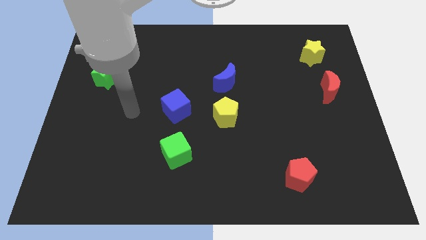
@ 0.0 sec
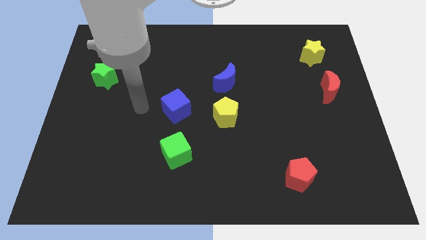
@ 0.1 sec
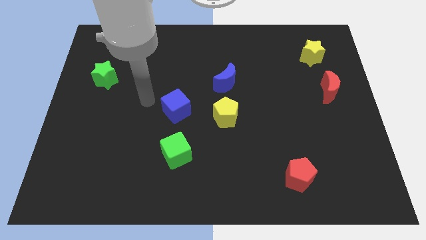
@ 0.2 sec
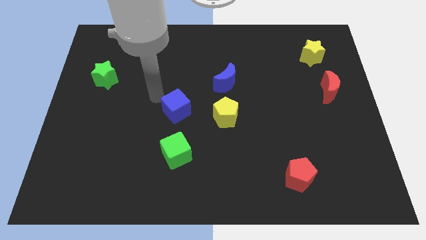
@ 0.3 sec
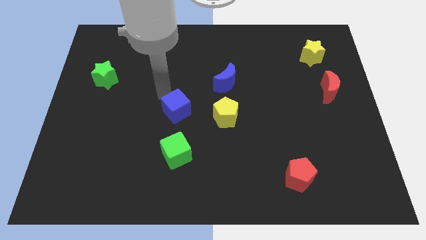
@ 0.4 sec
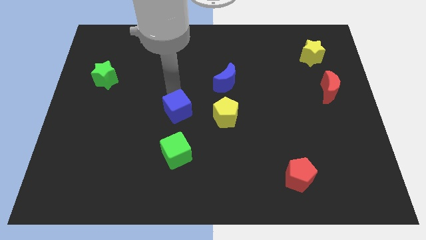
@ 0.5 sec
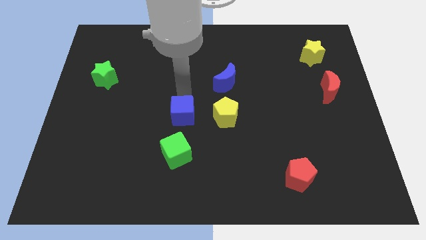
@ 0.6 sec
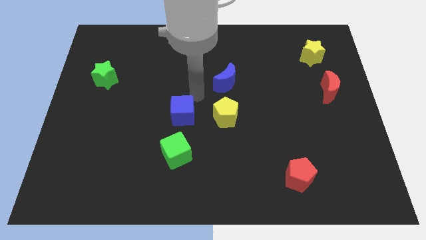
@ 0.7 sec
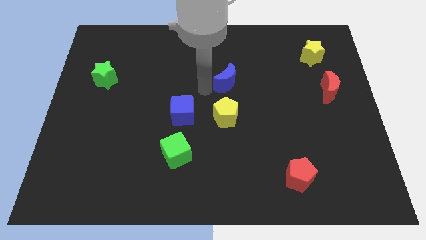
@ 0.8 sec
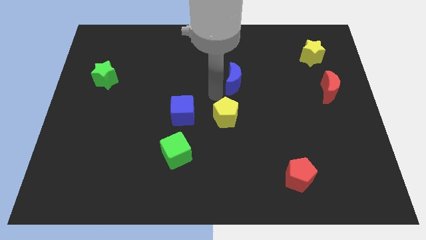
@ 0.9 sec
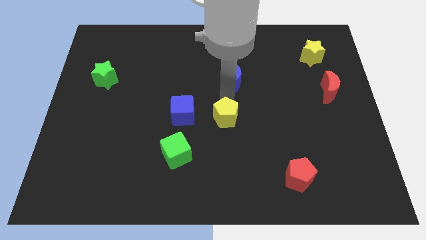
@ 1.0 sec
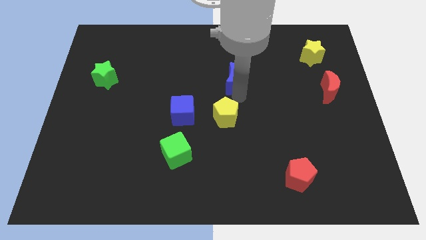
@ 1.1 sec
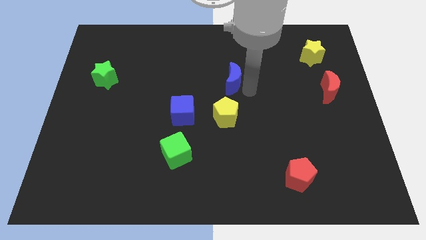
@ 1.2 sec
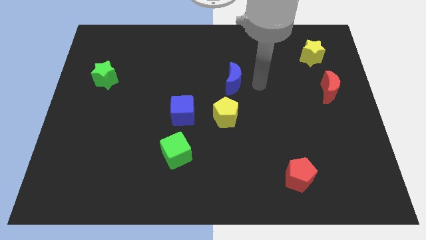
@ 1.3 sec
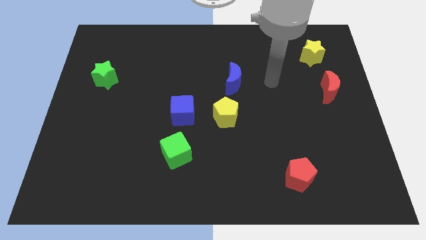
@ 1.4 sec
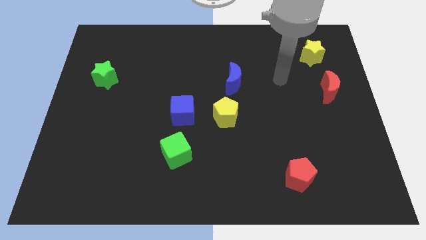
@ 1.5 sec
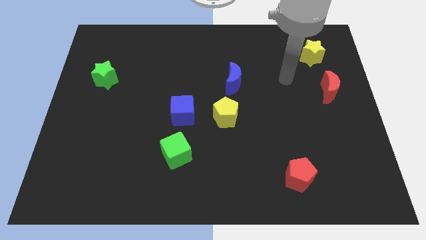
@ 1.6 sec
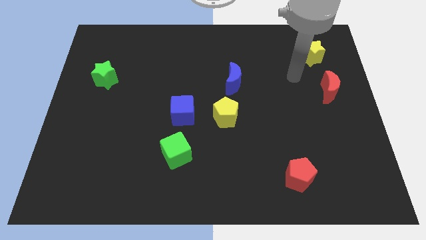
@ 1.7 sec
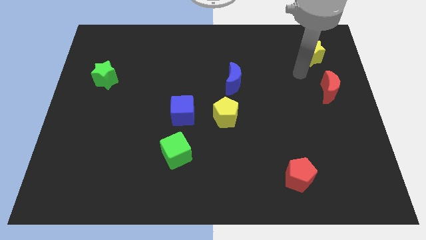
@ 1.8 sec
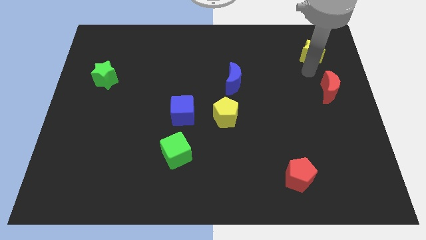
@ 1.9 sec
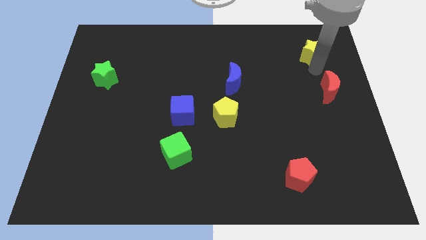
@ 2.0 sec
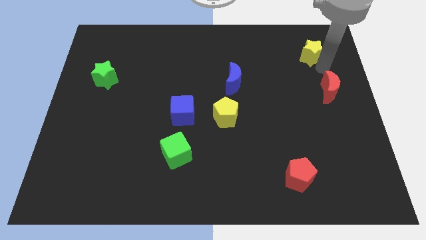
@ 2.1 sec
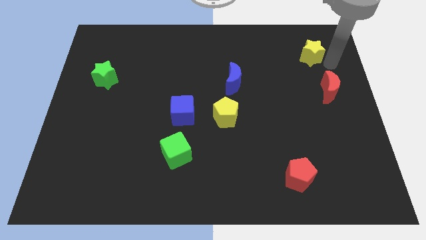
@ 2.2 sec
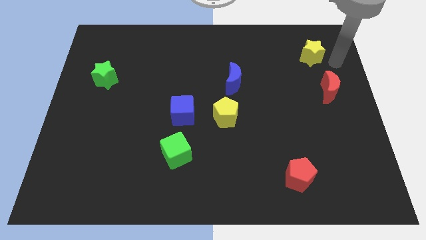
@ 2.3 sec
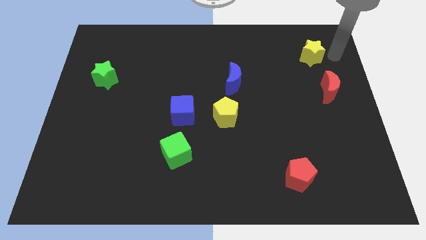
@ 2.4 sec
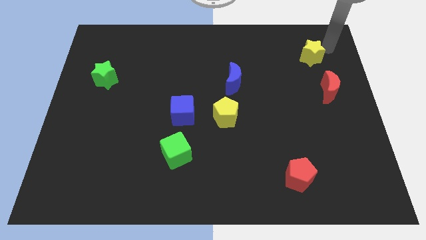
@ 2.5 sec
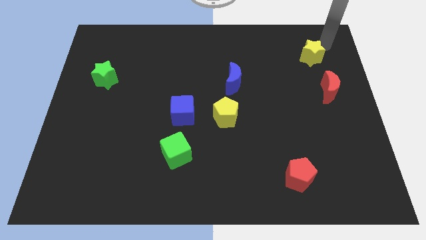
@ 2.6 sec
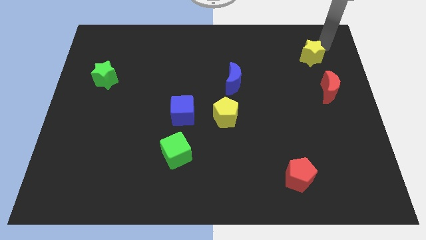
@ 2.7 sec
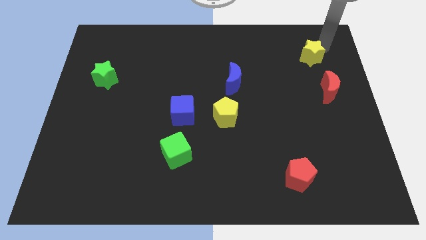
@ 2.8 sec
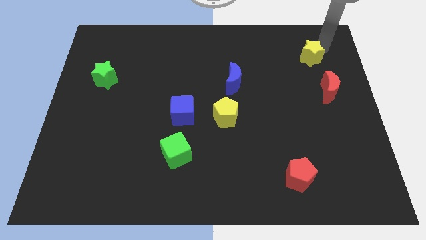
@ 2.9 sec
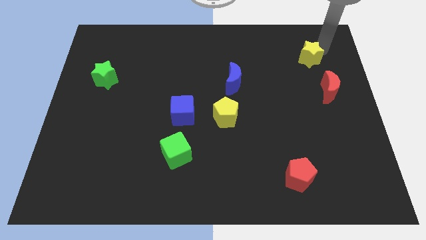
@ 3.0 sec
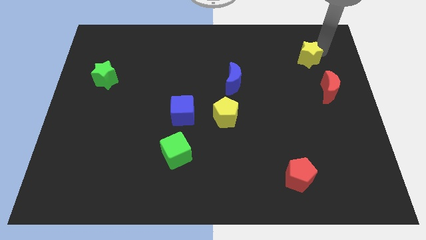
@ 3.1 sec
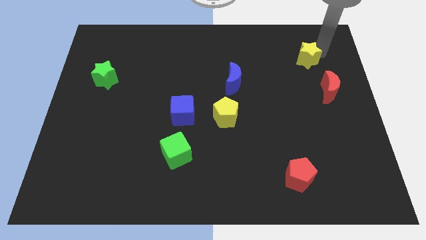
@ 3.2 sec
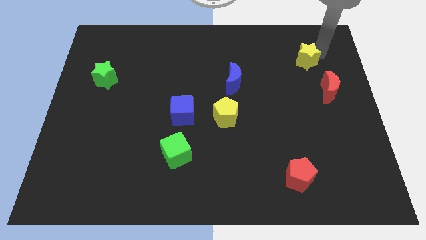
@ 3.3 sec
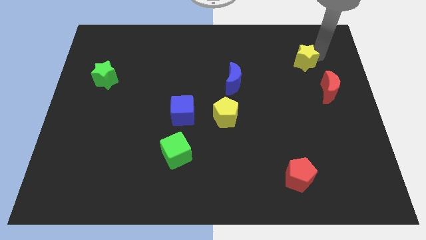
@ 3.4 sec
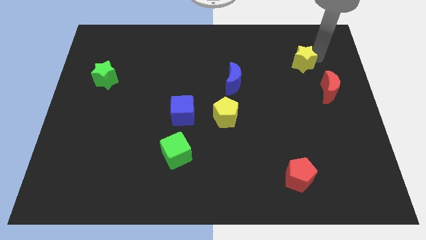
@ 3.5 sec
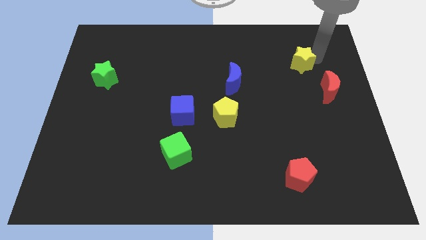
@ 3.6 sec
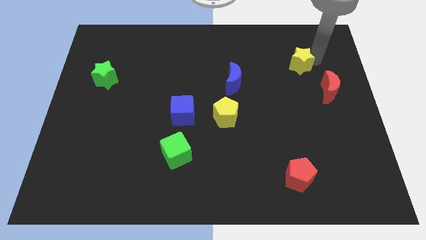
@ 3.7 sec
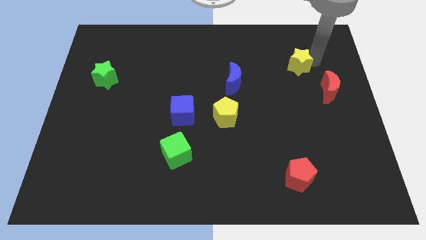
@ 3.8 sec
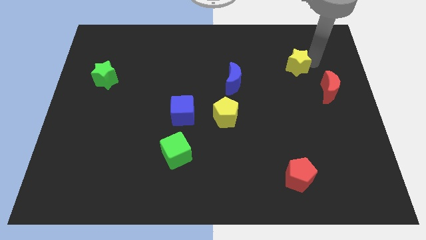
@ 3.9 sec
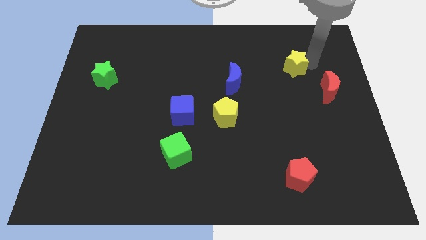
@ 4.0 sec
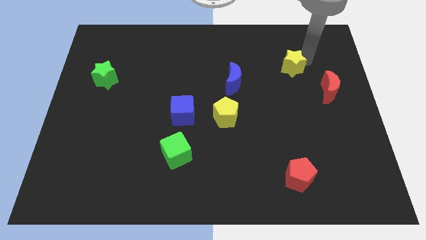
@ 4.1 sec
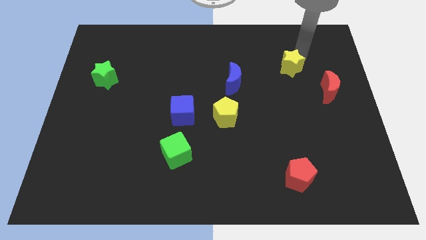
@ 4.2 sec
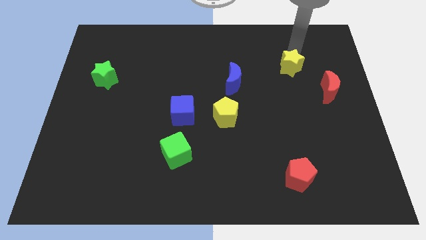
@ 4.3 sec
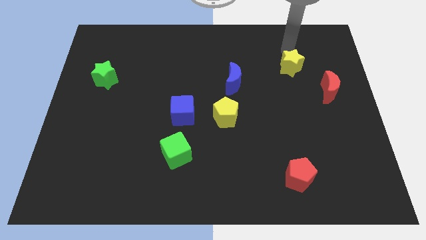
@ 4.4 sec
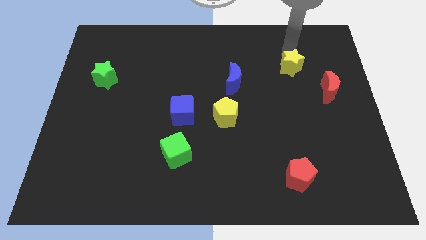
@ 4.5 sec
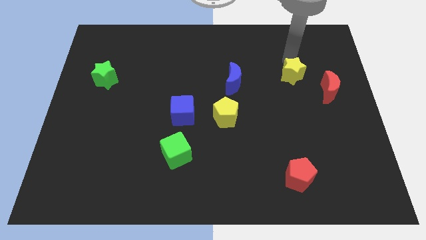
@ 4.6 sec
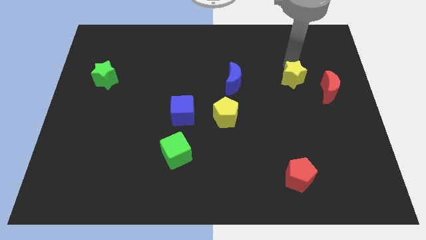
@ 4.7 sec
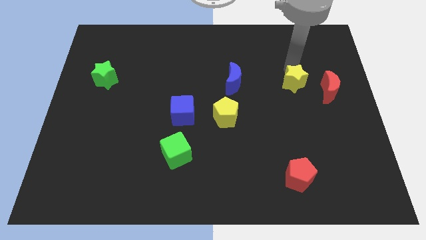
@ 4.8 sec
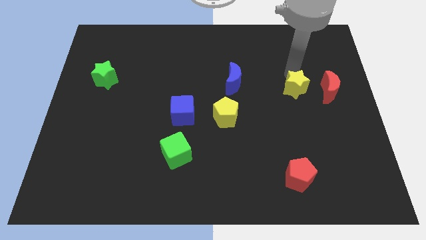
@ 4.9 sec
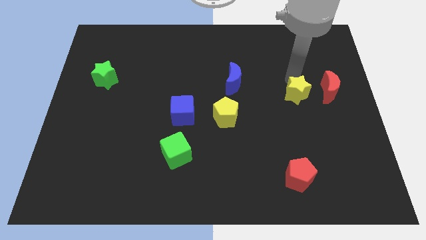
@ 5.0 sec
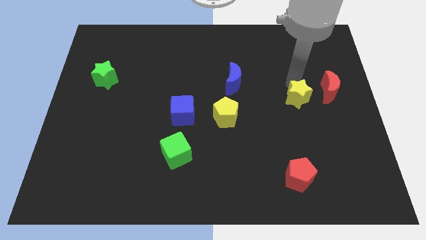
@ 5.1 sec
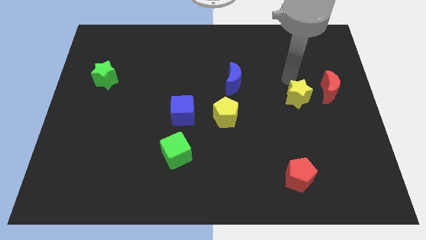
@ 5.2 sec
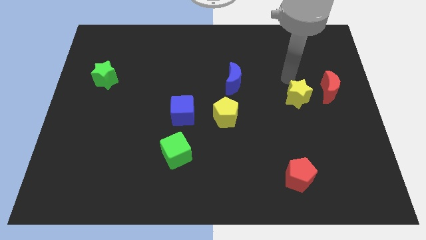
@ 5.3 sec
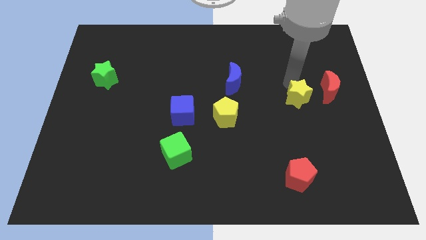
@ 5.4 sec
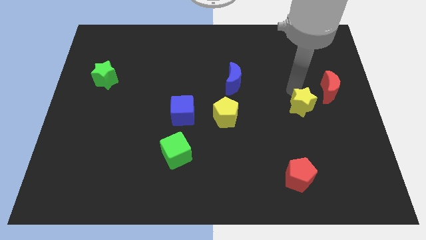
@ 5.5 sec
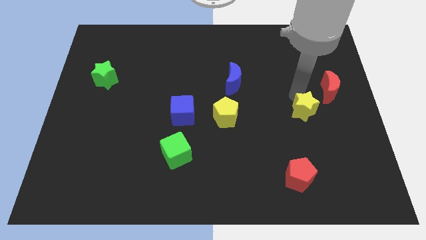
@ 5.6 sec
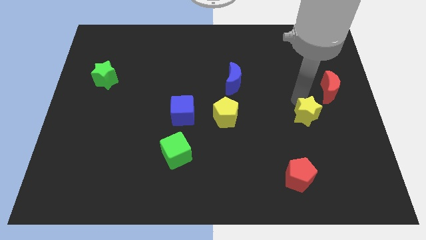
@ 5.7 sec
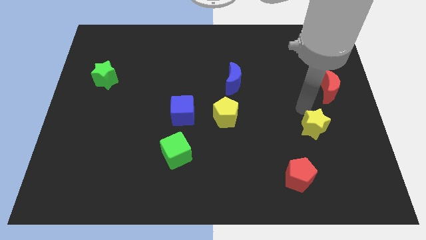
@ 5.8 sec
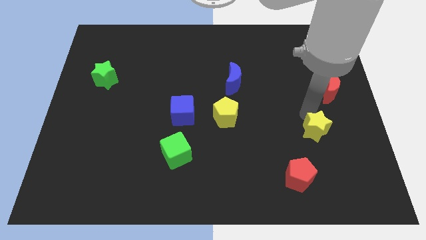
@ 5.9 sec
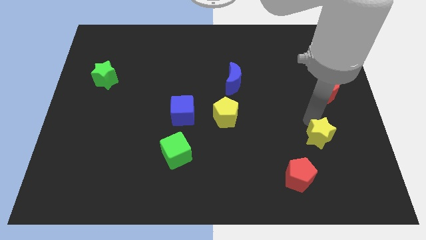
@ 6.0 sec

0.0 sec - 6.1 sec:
slide the yellow star to the top right of the red pentagon

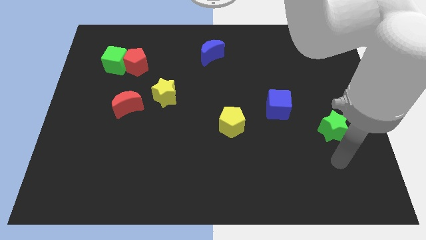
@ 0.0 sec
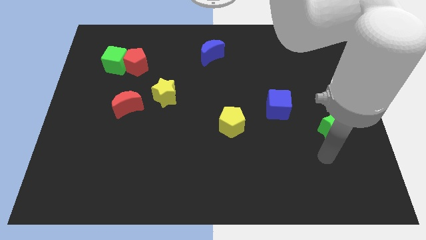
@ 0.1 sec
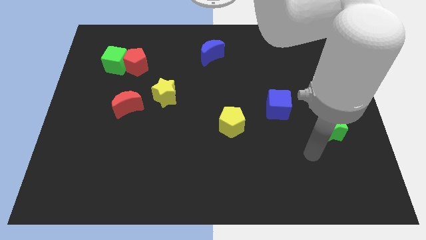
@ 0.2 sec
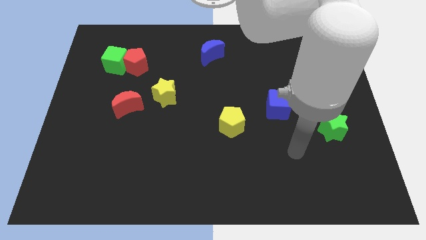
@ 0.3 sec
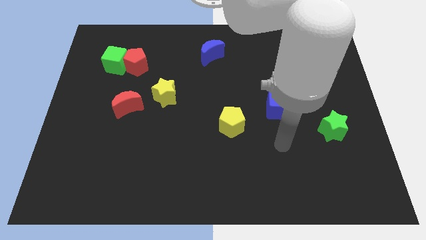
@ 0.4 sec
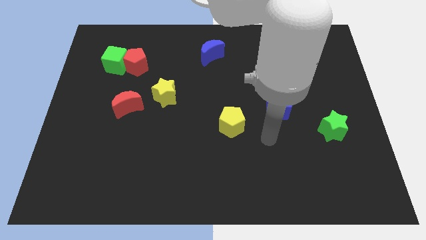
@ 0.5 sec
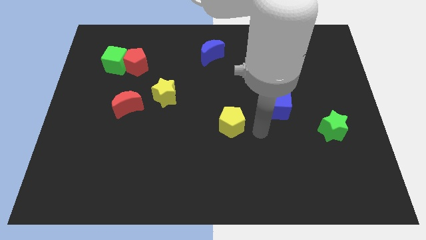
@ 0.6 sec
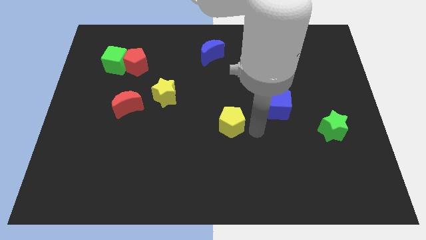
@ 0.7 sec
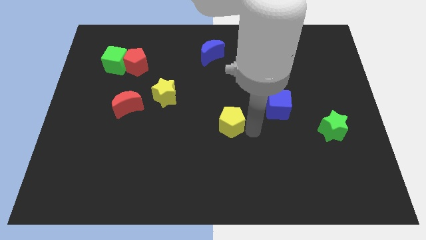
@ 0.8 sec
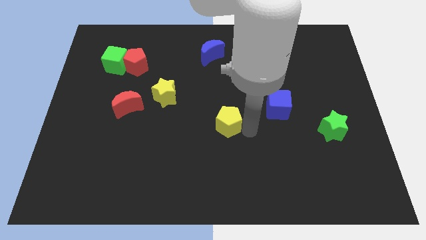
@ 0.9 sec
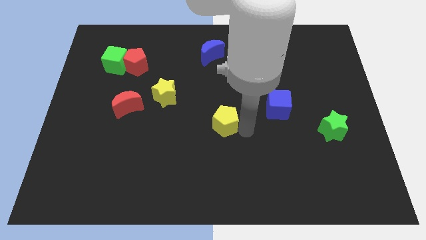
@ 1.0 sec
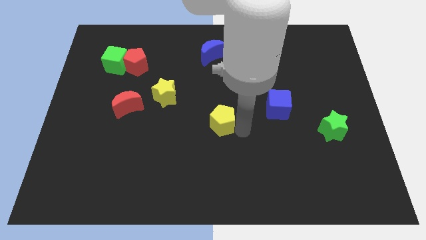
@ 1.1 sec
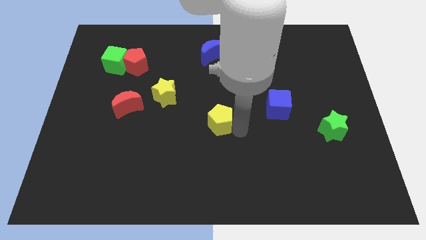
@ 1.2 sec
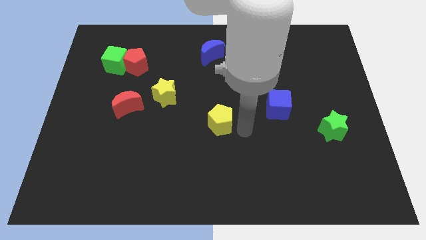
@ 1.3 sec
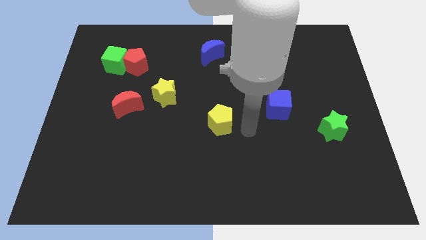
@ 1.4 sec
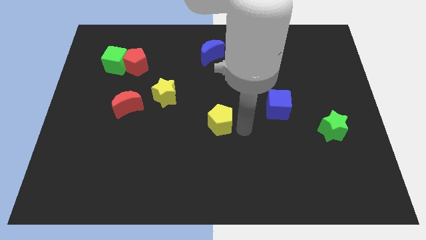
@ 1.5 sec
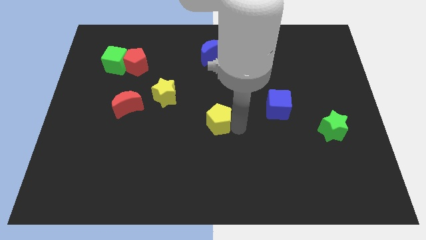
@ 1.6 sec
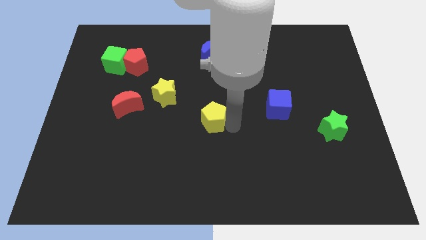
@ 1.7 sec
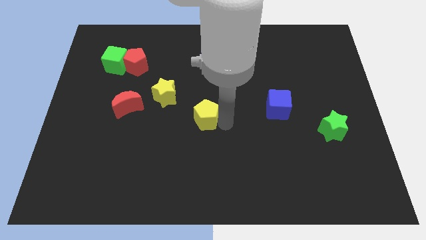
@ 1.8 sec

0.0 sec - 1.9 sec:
slide the yellow pentagon diagonally down and to the right of the yellow star
